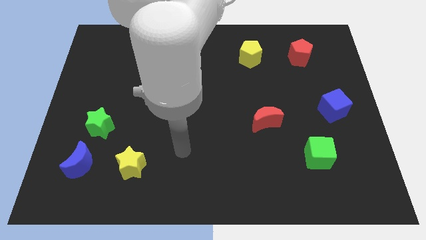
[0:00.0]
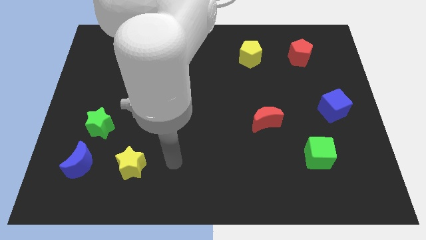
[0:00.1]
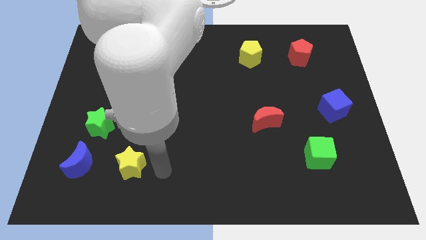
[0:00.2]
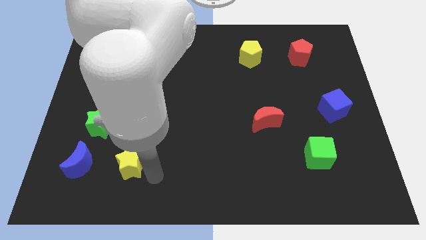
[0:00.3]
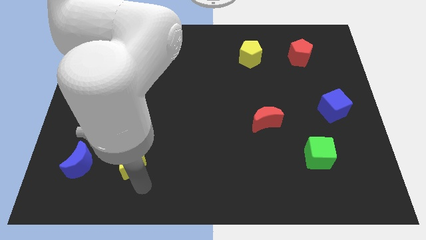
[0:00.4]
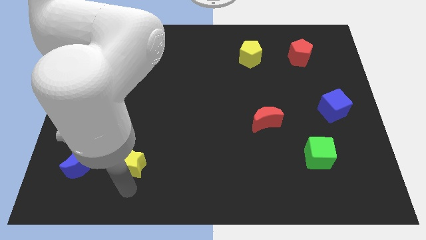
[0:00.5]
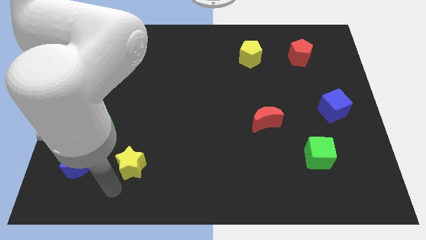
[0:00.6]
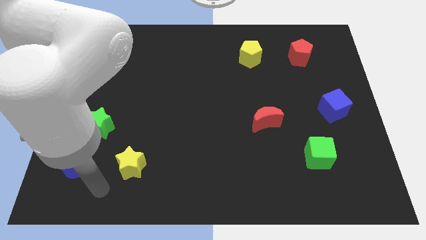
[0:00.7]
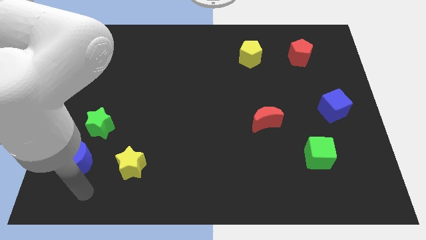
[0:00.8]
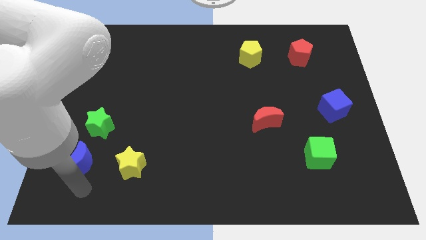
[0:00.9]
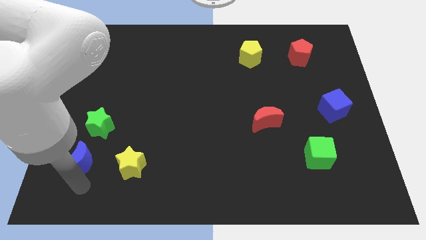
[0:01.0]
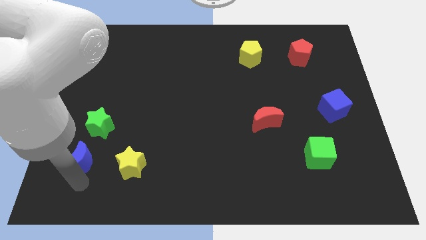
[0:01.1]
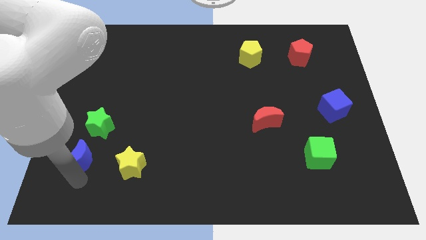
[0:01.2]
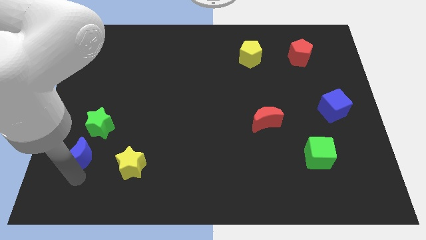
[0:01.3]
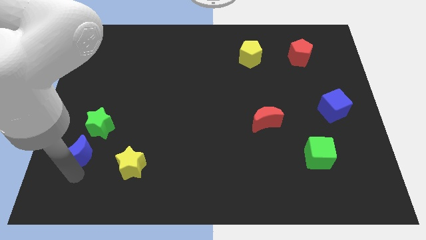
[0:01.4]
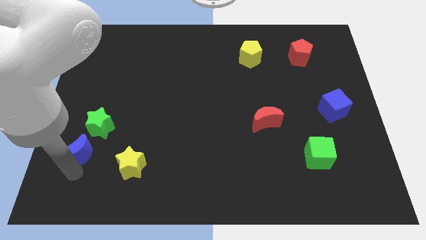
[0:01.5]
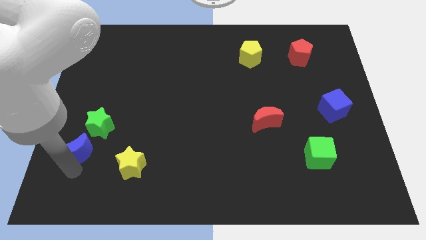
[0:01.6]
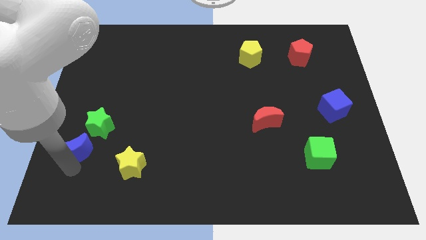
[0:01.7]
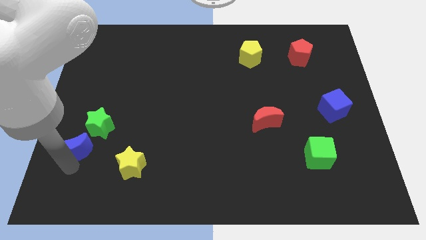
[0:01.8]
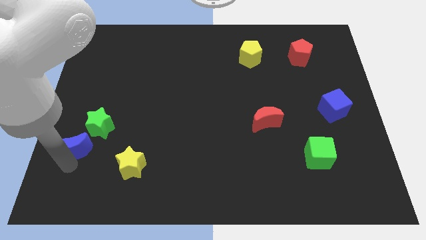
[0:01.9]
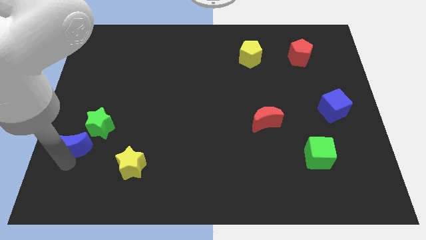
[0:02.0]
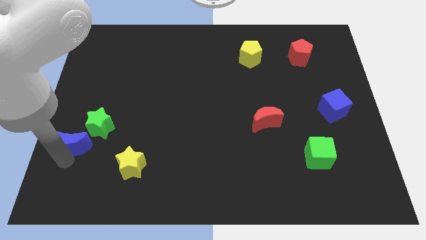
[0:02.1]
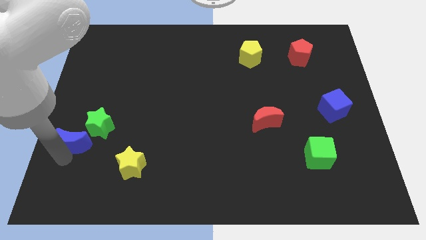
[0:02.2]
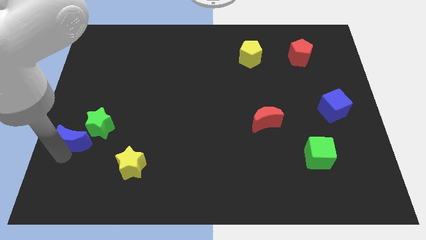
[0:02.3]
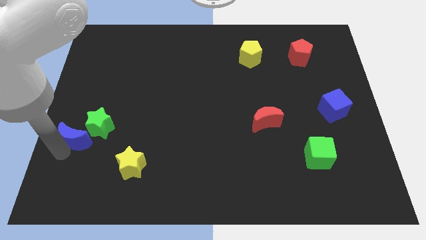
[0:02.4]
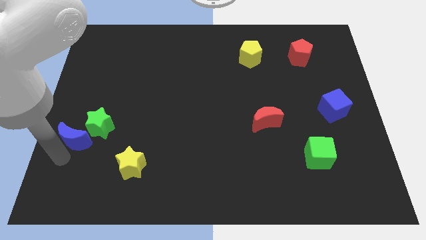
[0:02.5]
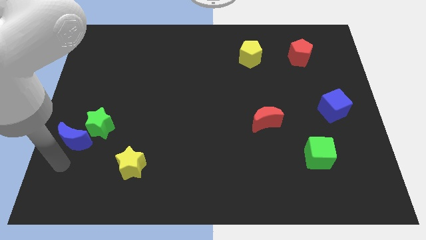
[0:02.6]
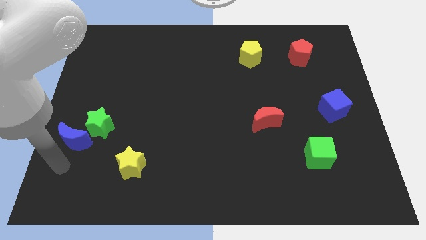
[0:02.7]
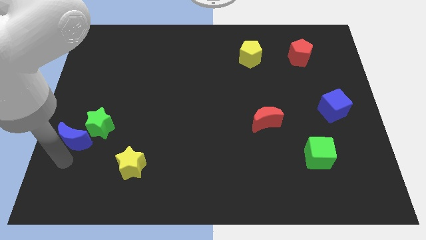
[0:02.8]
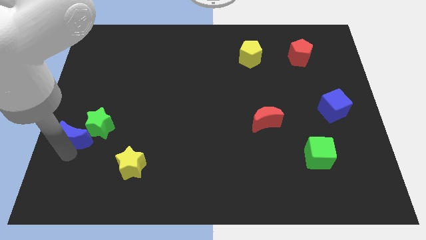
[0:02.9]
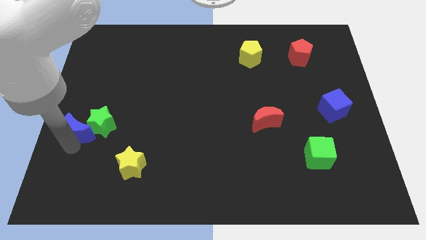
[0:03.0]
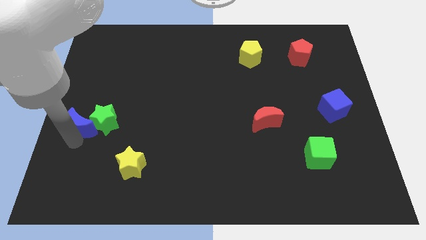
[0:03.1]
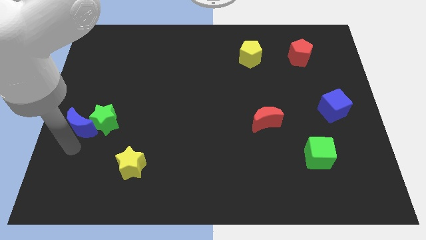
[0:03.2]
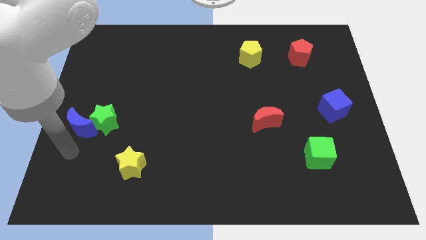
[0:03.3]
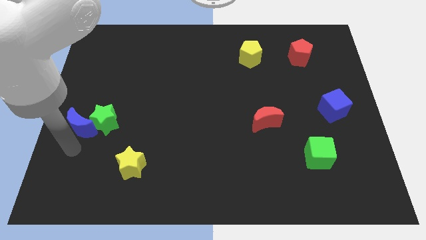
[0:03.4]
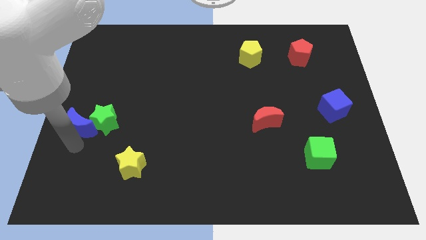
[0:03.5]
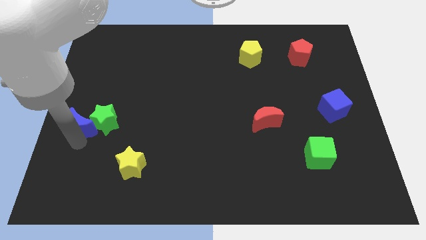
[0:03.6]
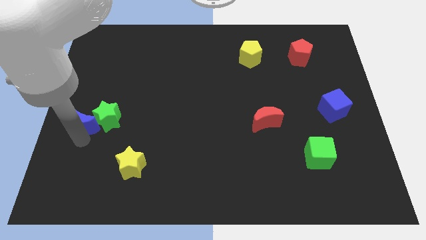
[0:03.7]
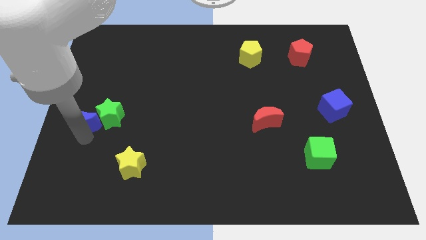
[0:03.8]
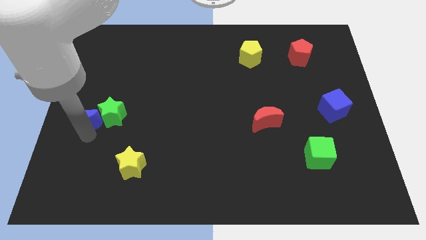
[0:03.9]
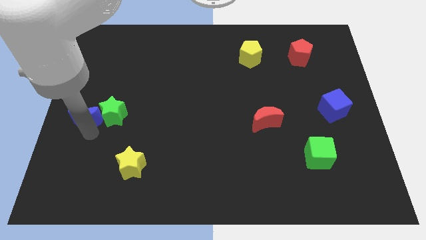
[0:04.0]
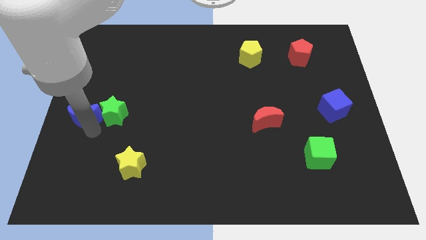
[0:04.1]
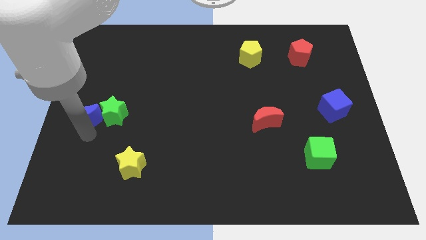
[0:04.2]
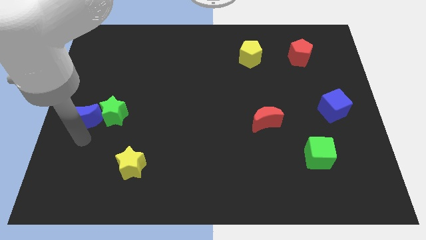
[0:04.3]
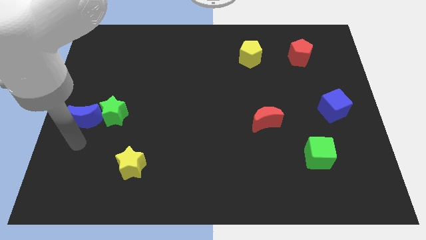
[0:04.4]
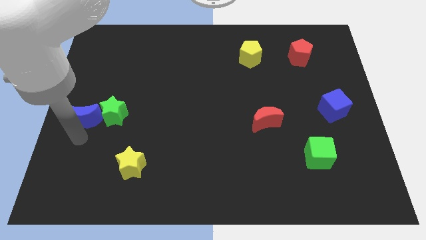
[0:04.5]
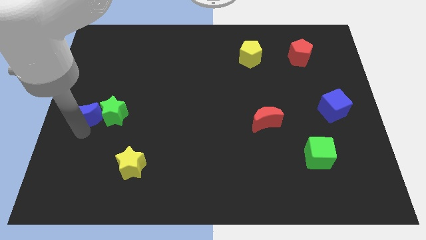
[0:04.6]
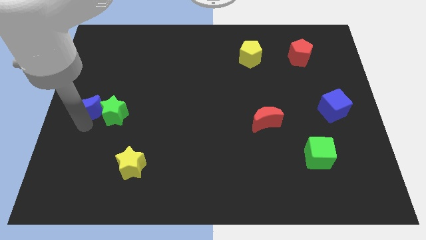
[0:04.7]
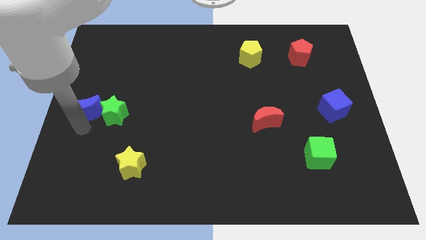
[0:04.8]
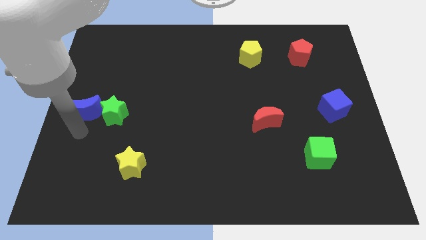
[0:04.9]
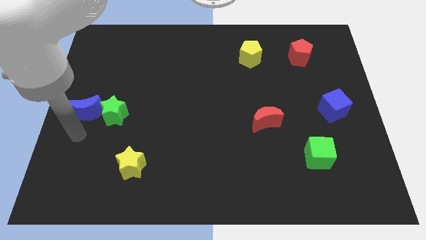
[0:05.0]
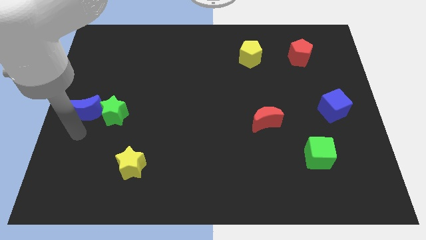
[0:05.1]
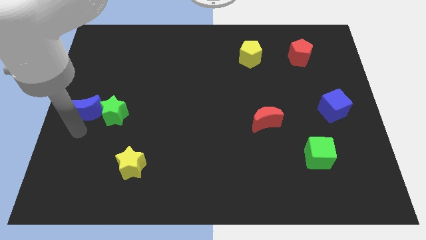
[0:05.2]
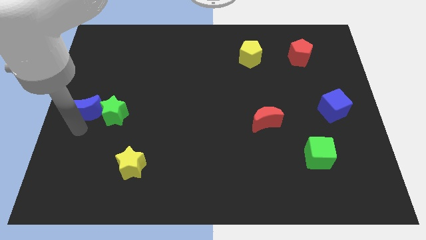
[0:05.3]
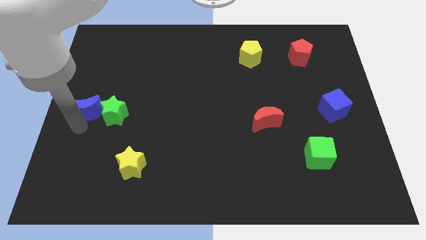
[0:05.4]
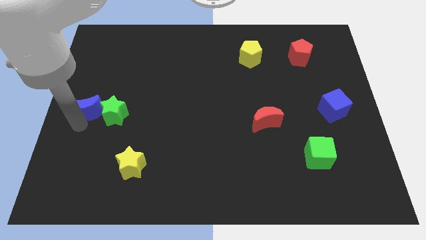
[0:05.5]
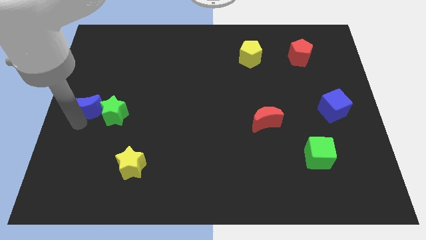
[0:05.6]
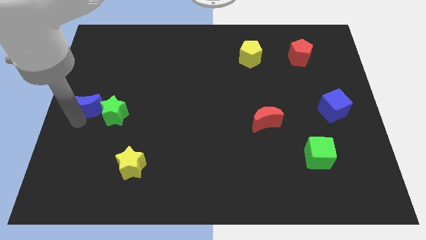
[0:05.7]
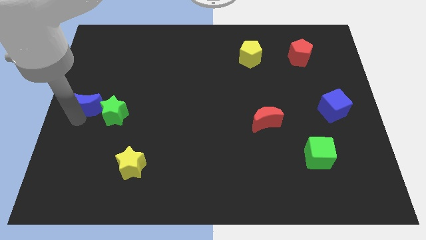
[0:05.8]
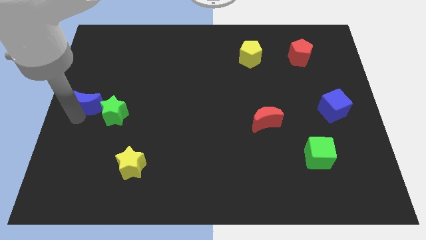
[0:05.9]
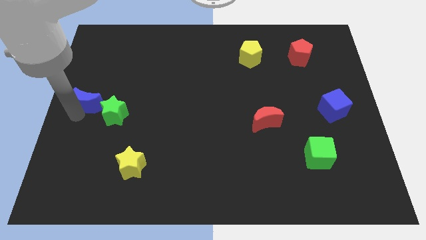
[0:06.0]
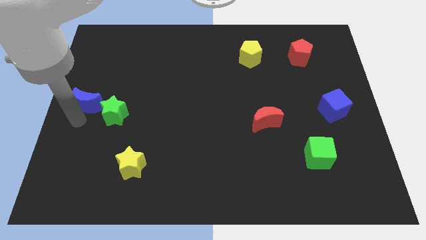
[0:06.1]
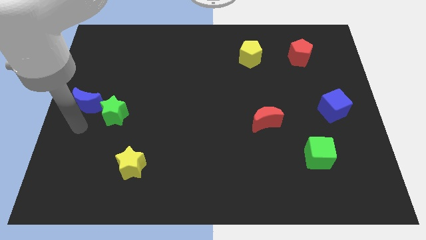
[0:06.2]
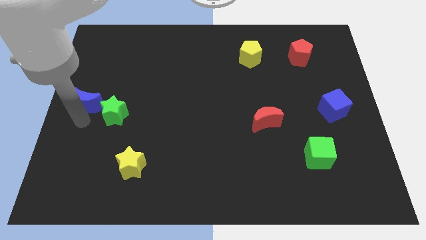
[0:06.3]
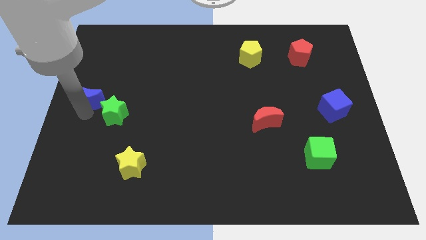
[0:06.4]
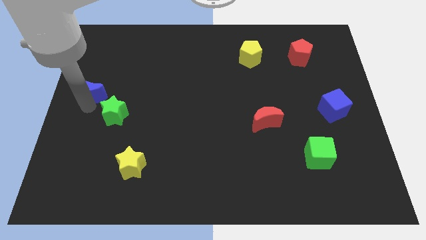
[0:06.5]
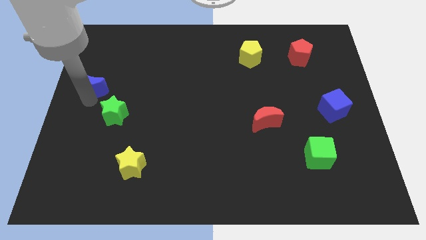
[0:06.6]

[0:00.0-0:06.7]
slide the blue moon up

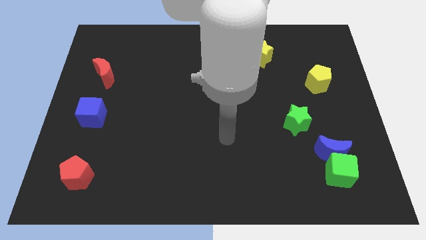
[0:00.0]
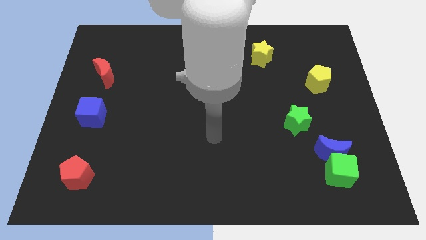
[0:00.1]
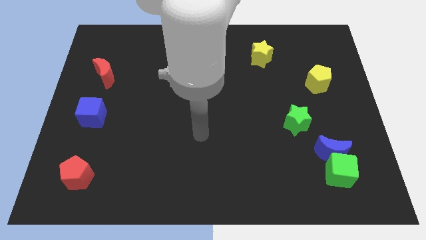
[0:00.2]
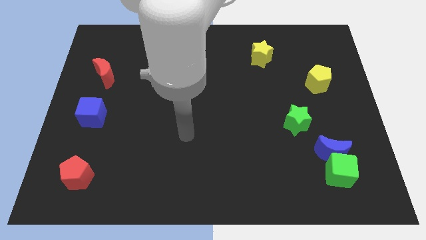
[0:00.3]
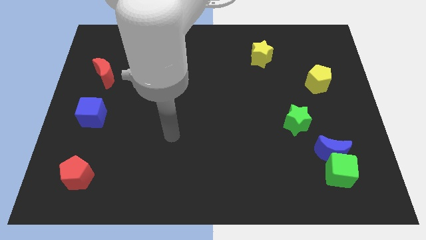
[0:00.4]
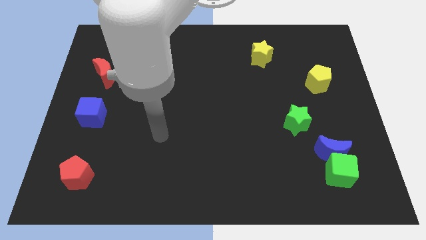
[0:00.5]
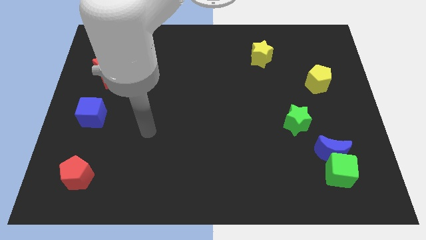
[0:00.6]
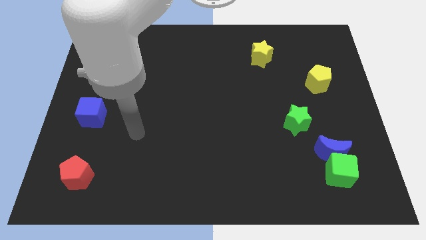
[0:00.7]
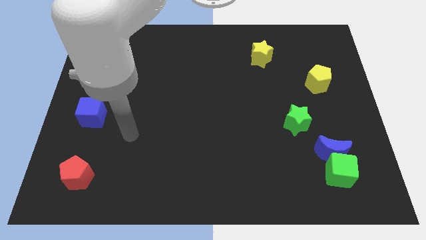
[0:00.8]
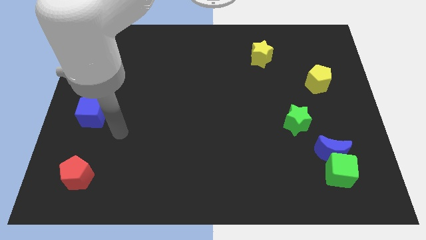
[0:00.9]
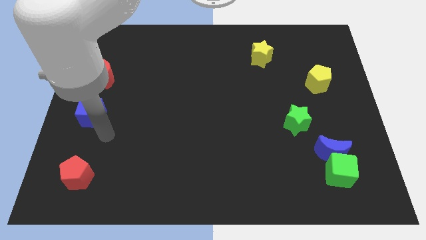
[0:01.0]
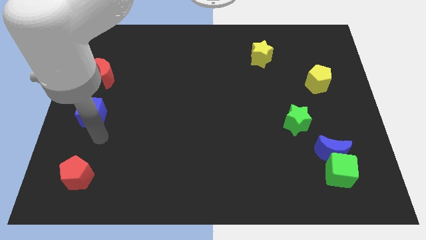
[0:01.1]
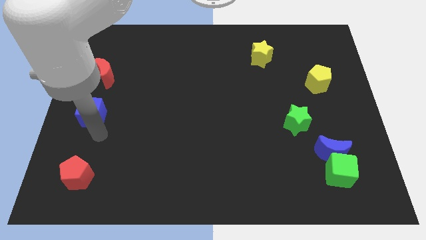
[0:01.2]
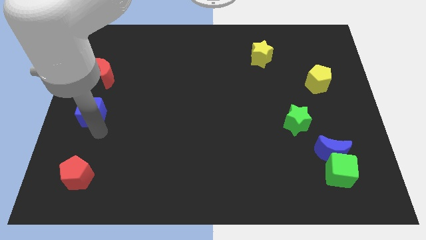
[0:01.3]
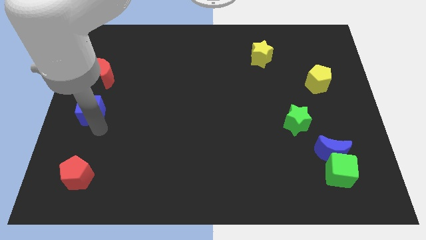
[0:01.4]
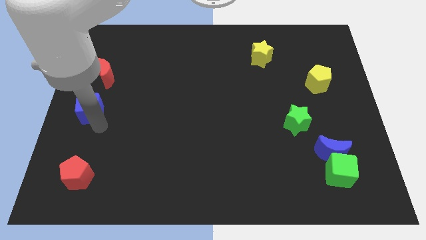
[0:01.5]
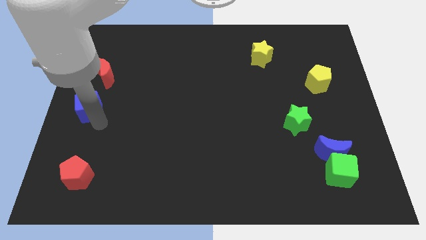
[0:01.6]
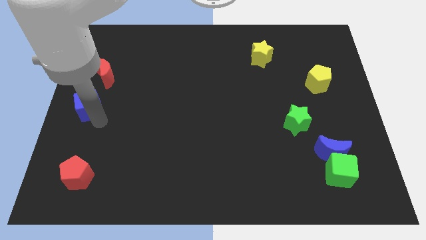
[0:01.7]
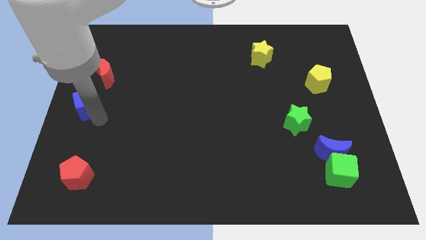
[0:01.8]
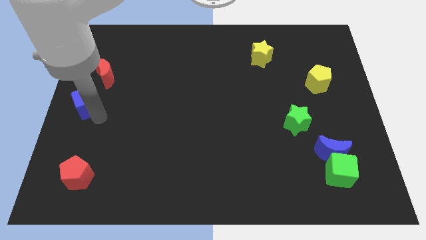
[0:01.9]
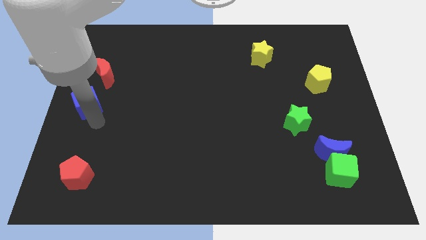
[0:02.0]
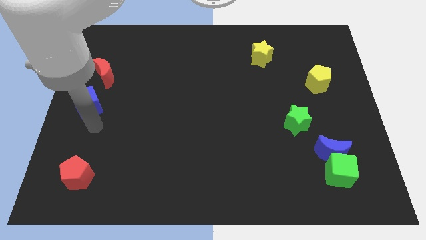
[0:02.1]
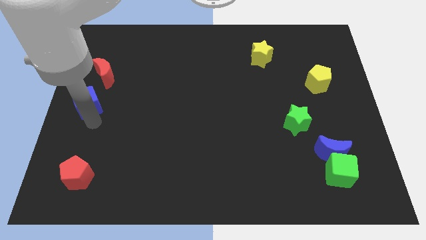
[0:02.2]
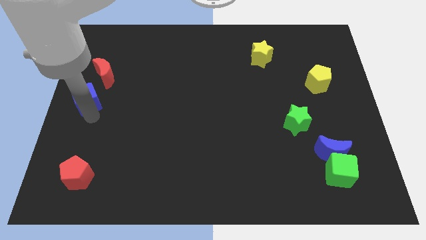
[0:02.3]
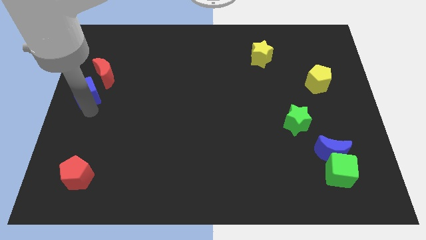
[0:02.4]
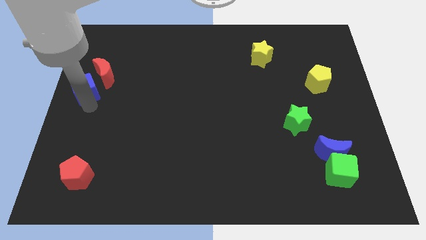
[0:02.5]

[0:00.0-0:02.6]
push the blue cube up a little
